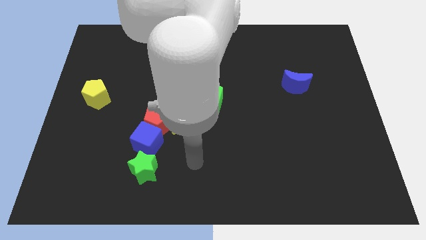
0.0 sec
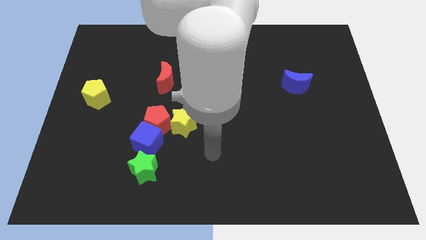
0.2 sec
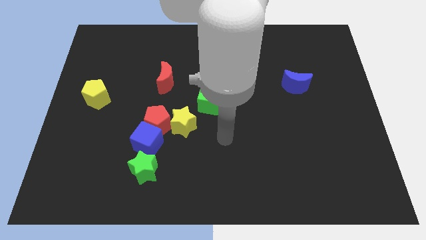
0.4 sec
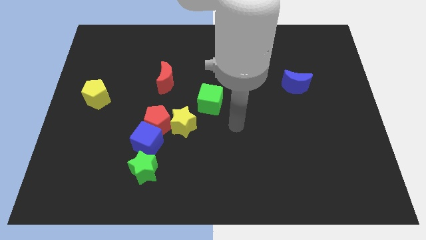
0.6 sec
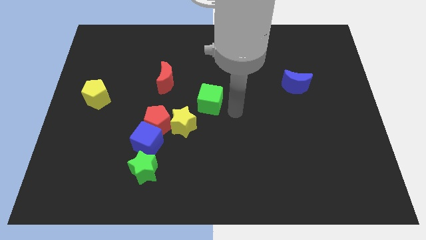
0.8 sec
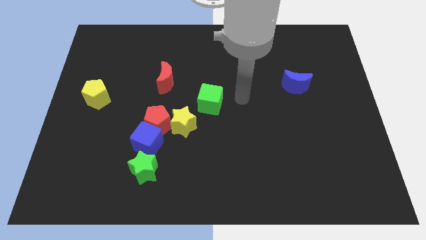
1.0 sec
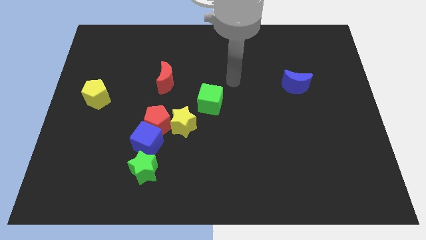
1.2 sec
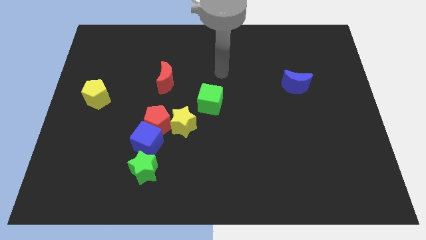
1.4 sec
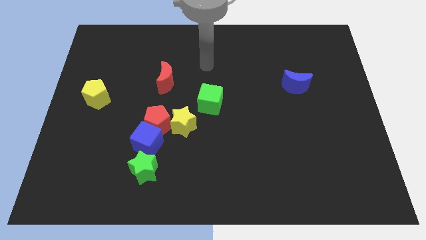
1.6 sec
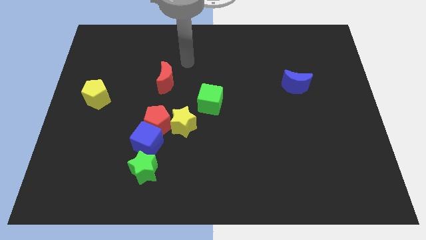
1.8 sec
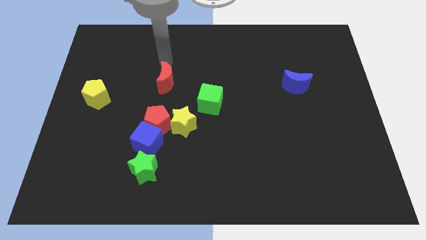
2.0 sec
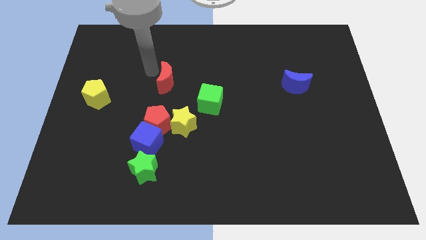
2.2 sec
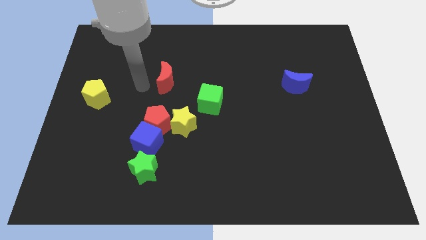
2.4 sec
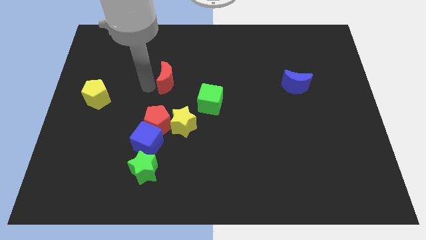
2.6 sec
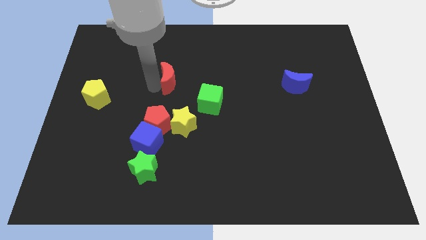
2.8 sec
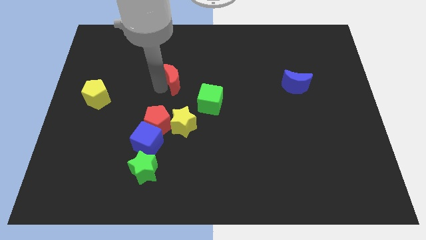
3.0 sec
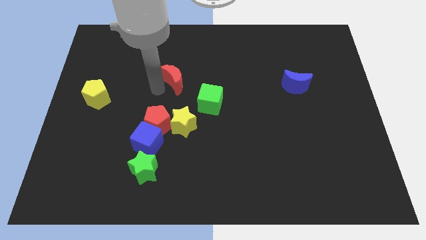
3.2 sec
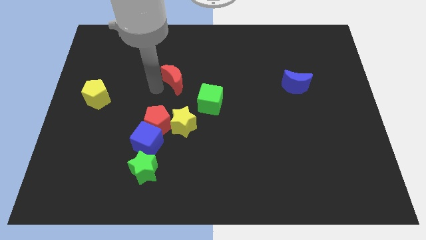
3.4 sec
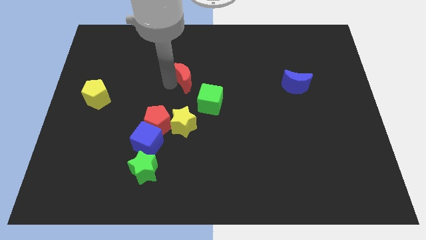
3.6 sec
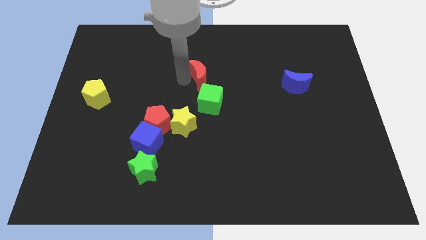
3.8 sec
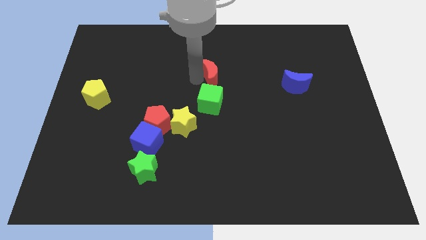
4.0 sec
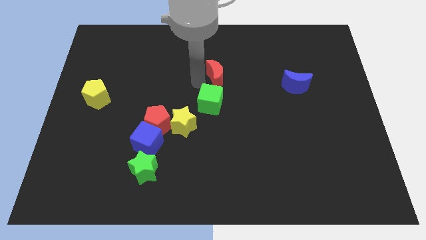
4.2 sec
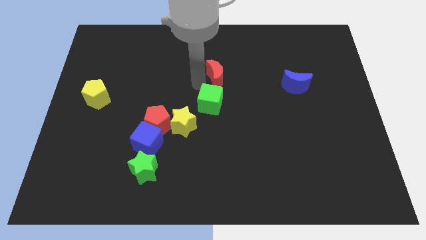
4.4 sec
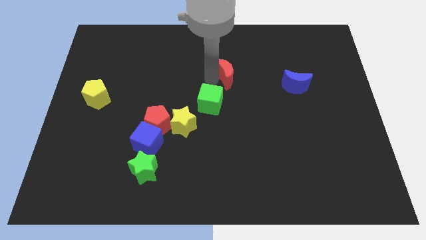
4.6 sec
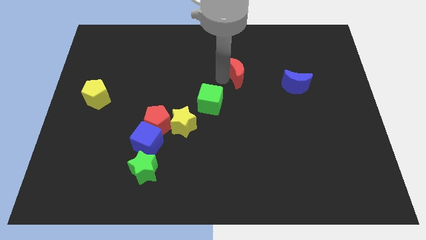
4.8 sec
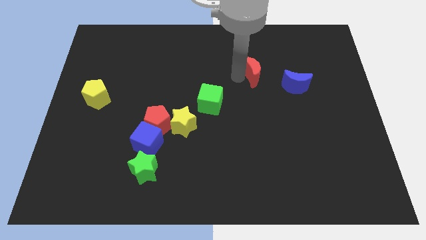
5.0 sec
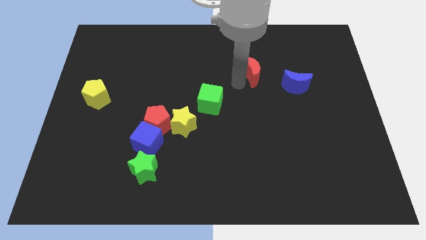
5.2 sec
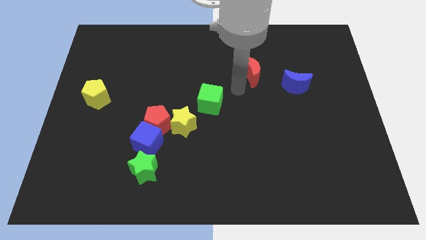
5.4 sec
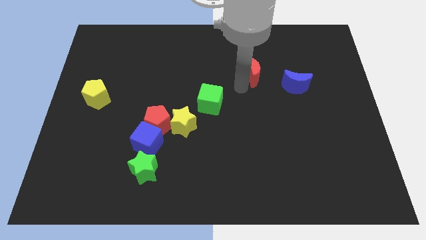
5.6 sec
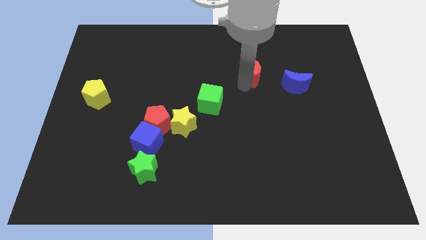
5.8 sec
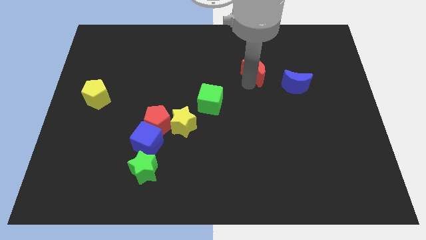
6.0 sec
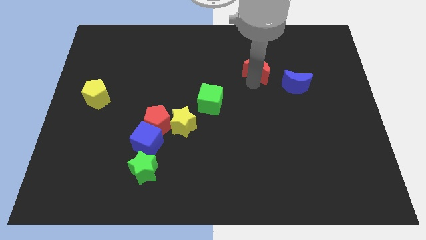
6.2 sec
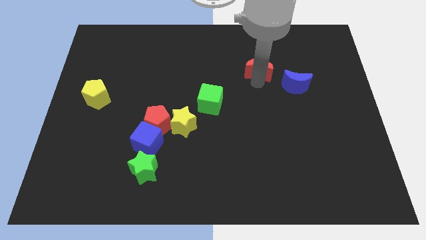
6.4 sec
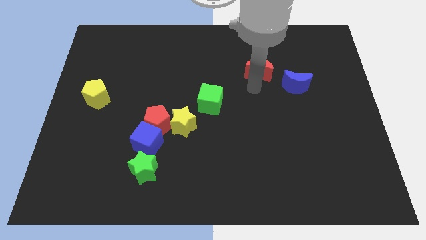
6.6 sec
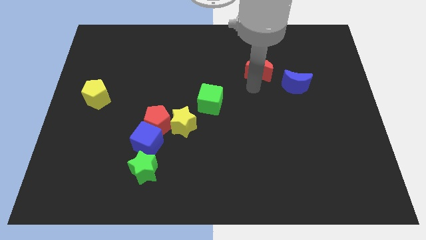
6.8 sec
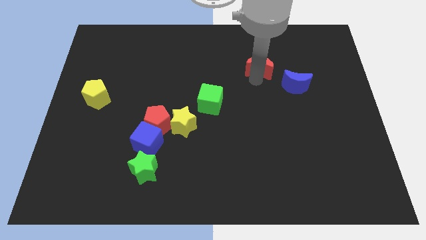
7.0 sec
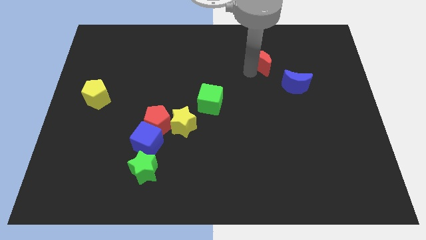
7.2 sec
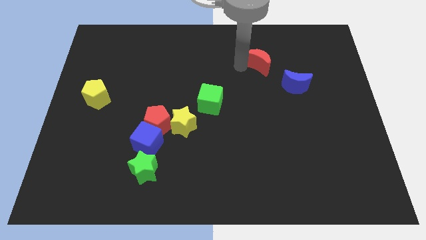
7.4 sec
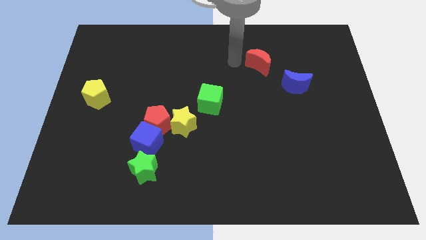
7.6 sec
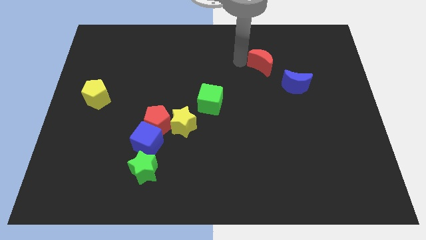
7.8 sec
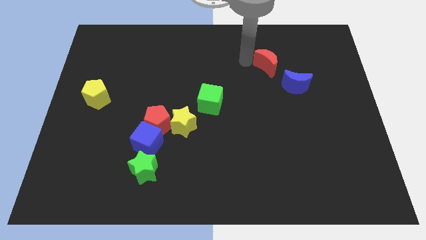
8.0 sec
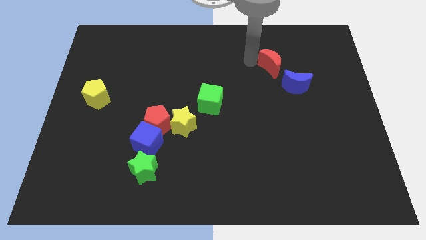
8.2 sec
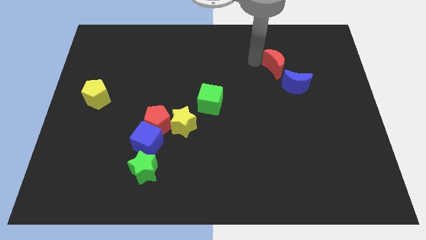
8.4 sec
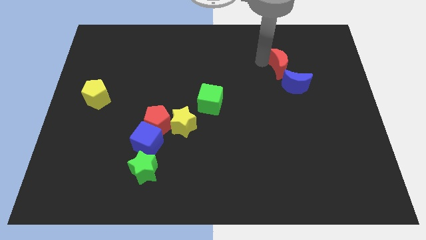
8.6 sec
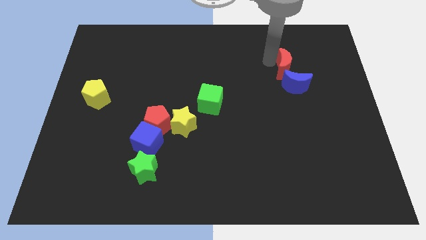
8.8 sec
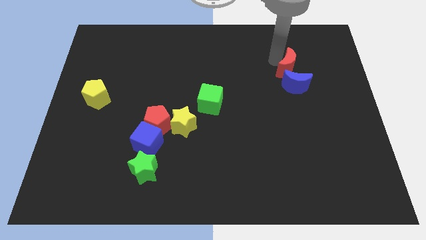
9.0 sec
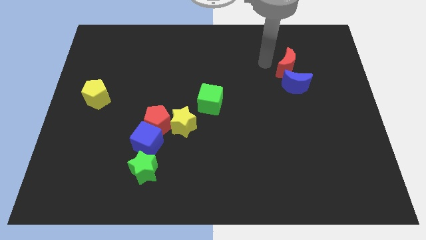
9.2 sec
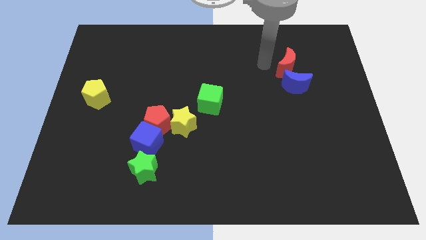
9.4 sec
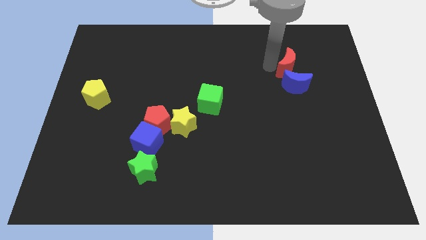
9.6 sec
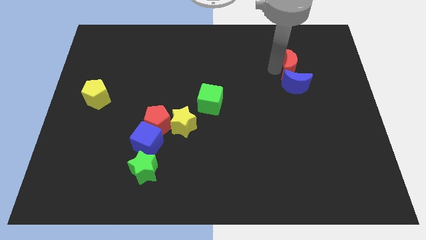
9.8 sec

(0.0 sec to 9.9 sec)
move the red moon to the top right of the blue moon

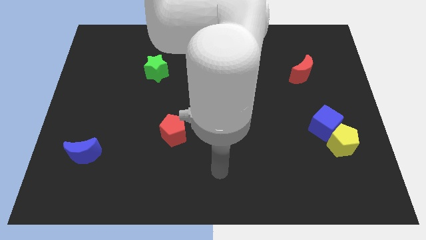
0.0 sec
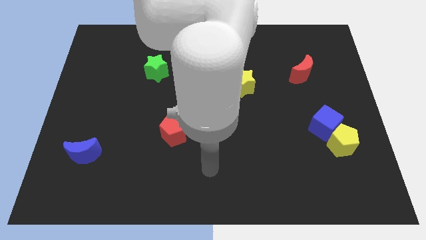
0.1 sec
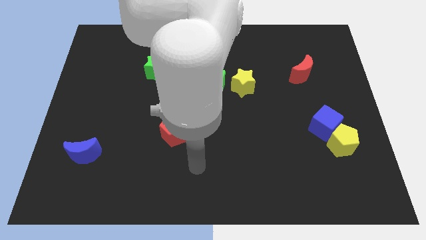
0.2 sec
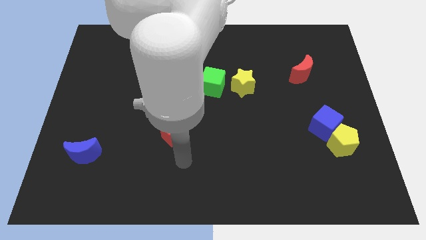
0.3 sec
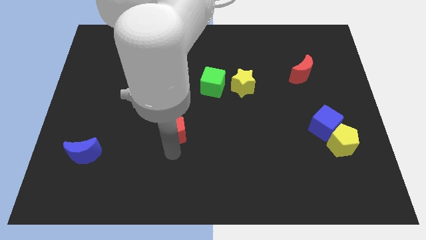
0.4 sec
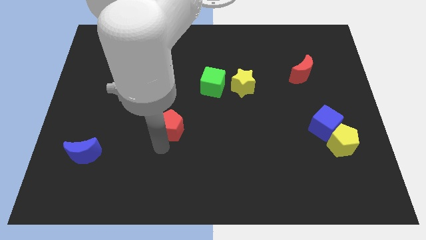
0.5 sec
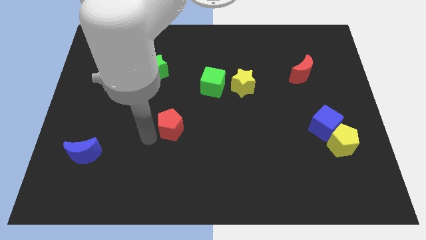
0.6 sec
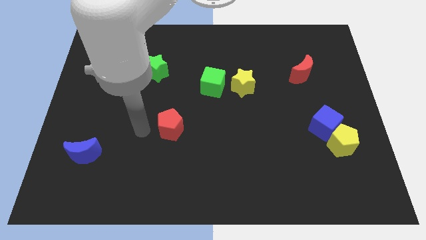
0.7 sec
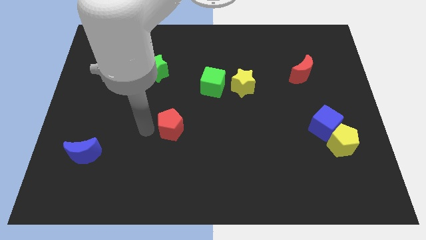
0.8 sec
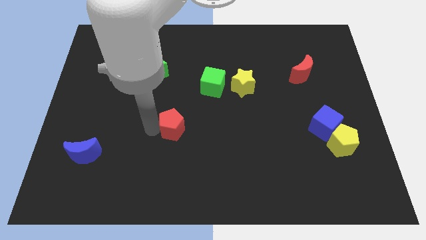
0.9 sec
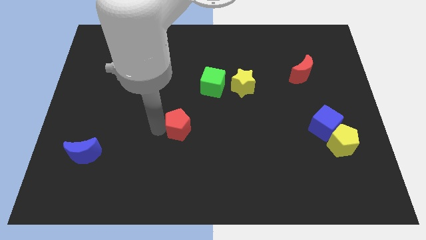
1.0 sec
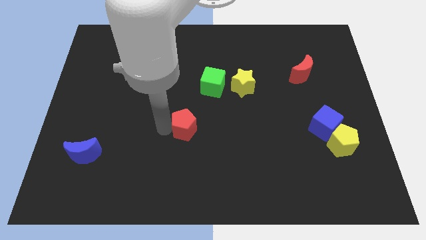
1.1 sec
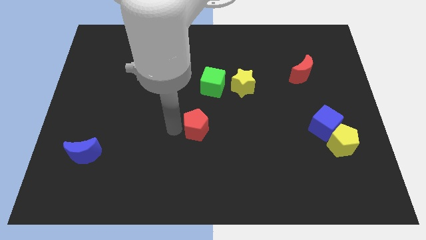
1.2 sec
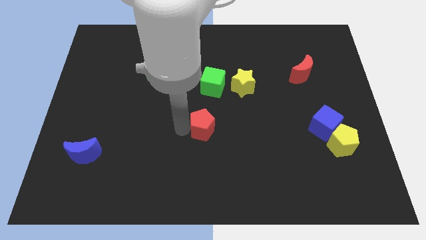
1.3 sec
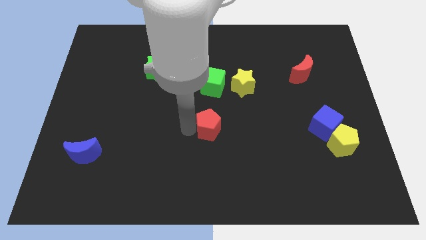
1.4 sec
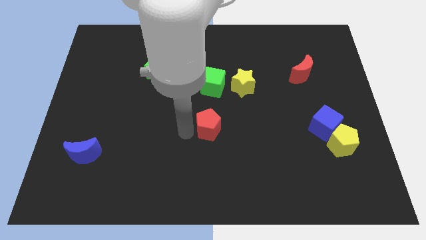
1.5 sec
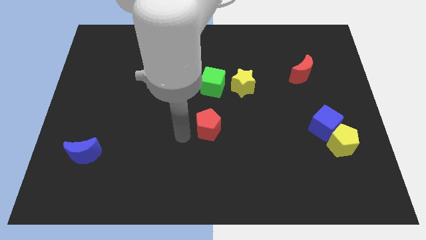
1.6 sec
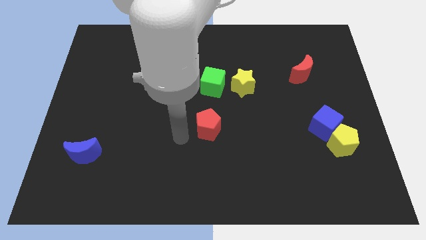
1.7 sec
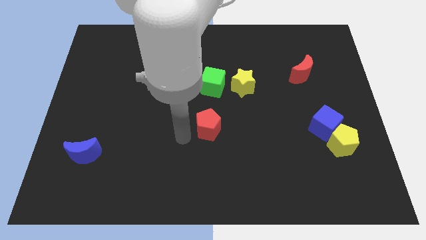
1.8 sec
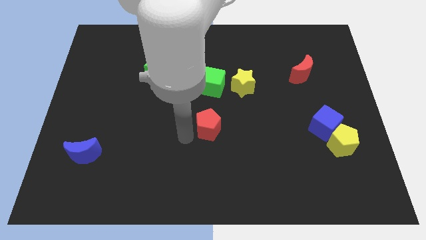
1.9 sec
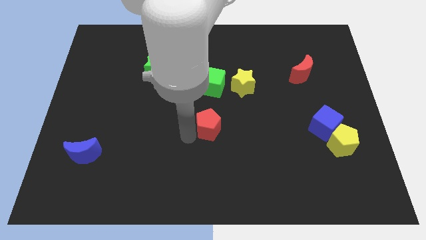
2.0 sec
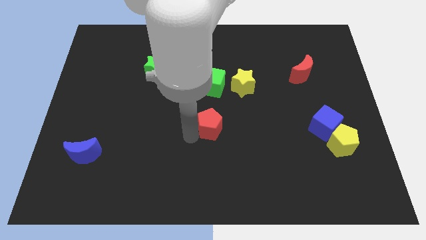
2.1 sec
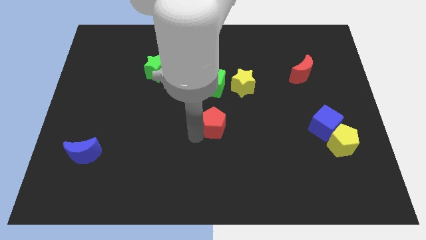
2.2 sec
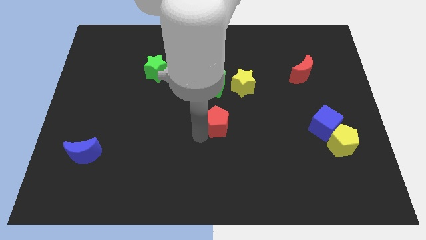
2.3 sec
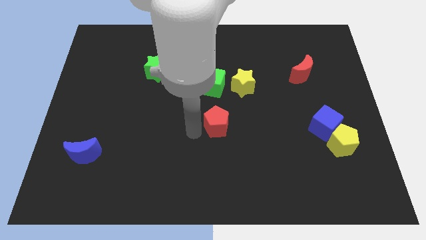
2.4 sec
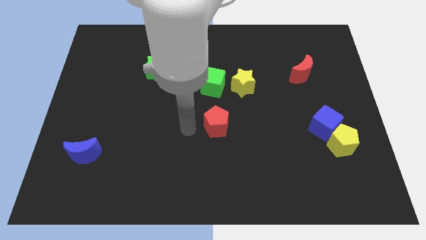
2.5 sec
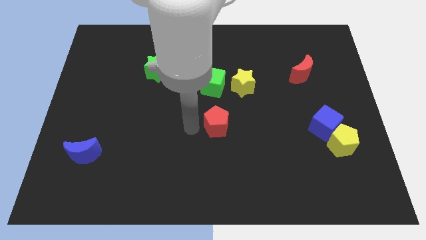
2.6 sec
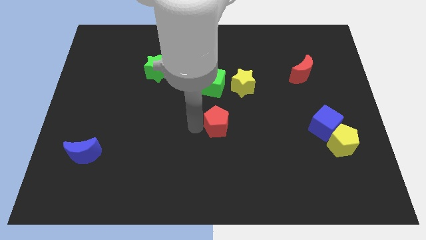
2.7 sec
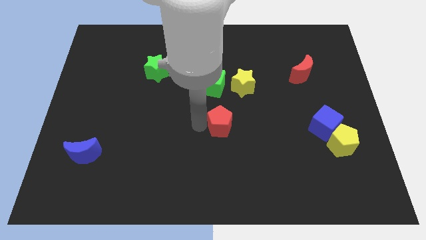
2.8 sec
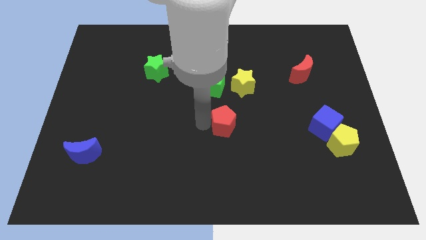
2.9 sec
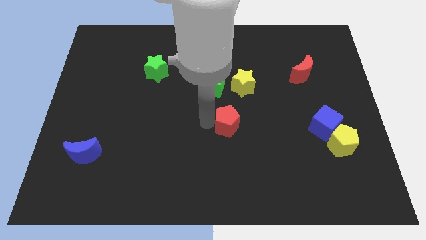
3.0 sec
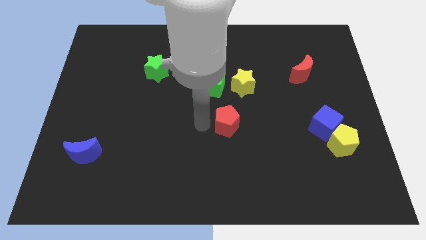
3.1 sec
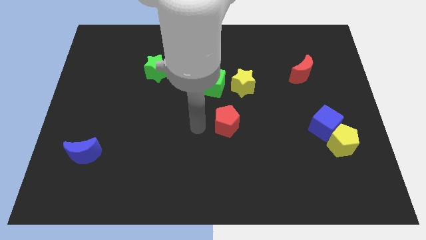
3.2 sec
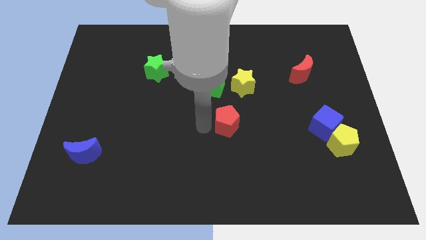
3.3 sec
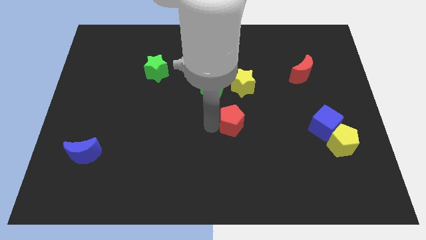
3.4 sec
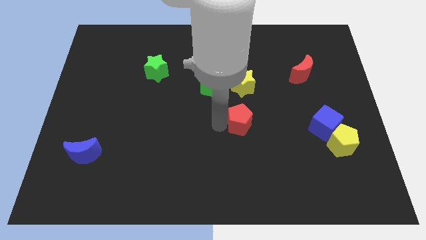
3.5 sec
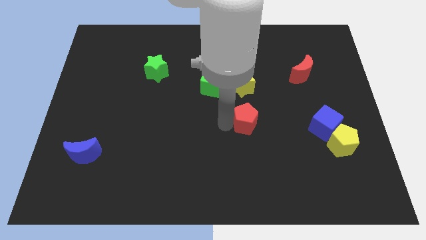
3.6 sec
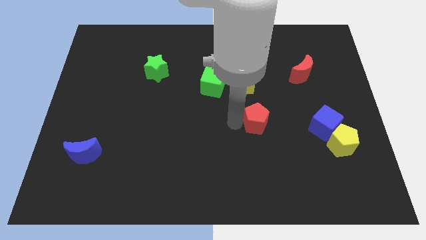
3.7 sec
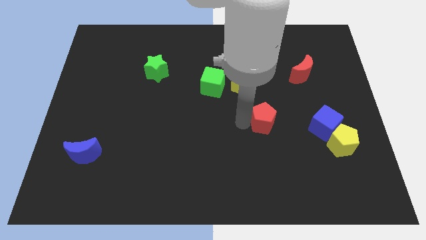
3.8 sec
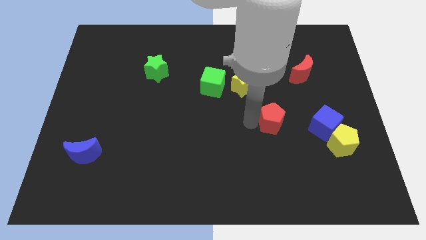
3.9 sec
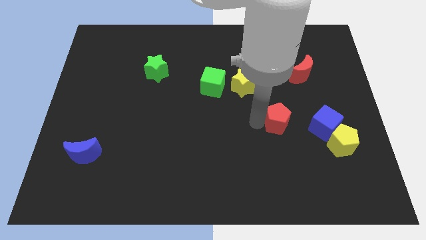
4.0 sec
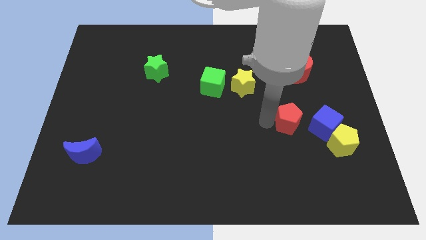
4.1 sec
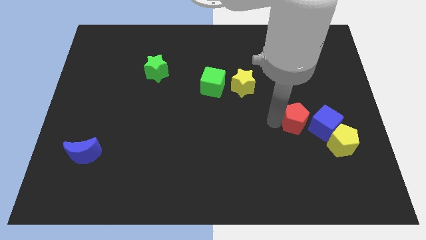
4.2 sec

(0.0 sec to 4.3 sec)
put the red pentagon to the top left of the yellow pentagon
